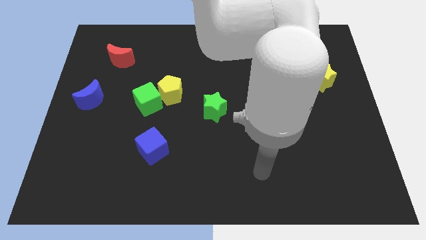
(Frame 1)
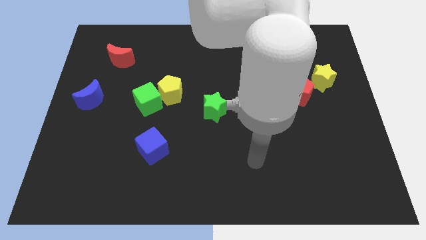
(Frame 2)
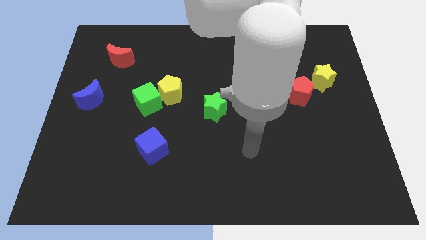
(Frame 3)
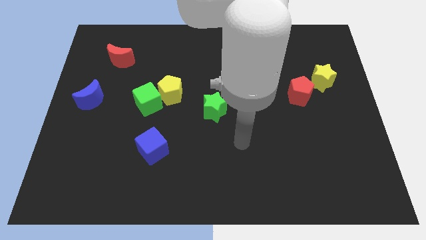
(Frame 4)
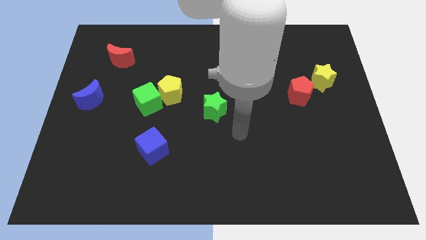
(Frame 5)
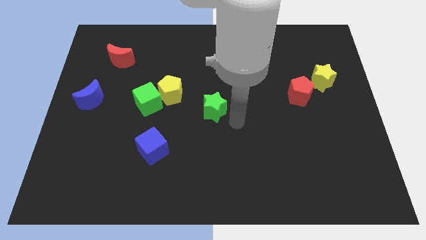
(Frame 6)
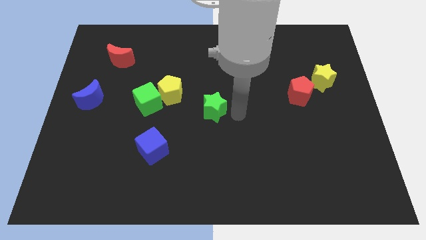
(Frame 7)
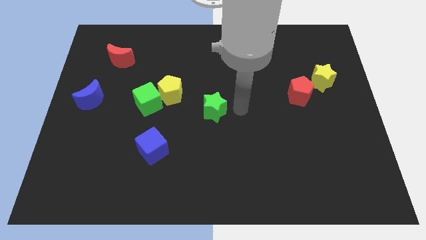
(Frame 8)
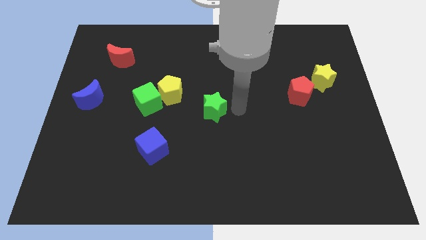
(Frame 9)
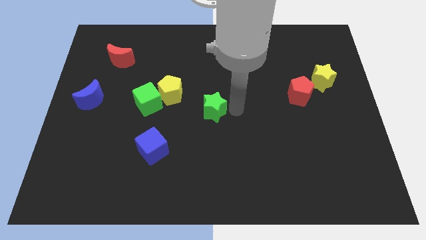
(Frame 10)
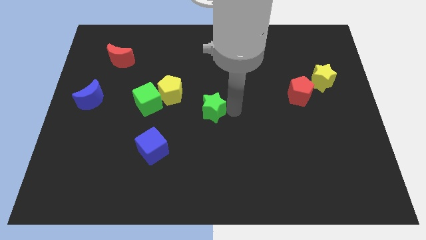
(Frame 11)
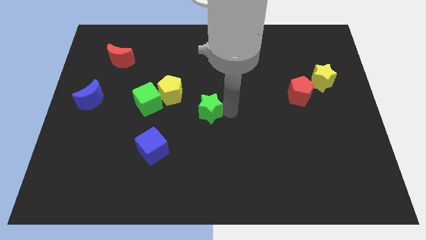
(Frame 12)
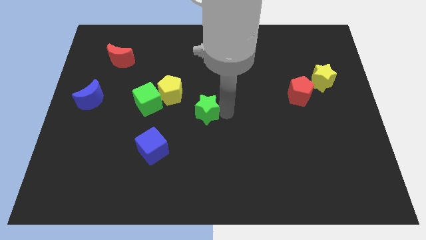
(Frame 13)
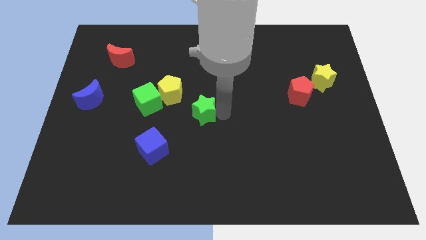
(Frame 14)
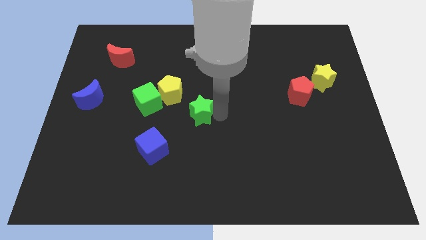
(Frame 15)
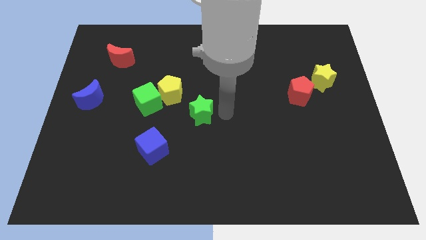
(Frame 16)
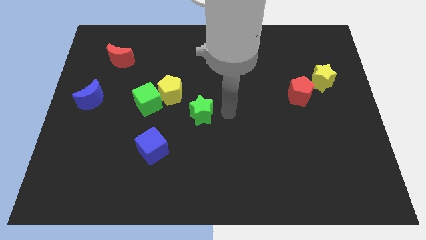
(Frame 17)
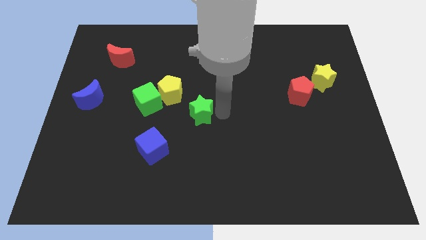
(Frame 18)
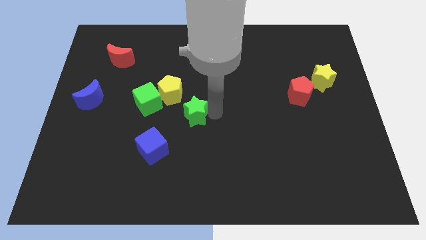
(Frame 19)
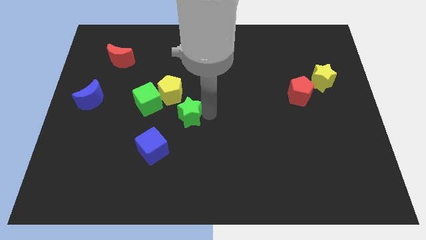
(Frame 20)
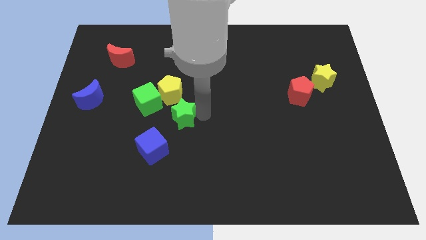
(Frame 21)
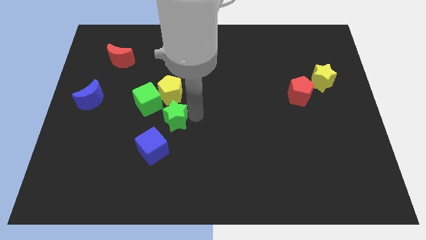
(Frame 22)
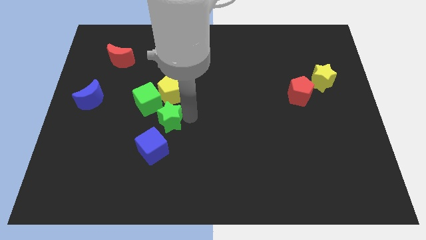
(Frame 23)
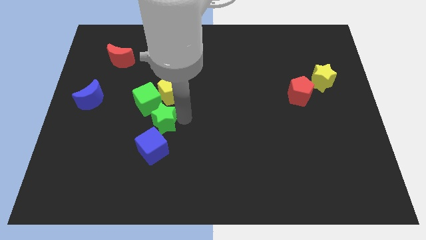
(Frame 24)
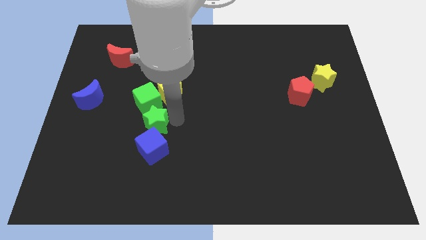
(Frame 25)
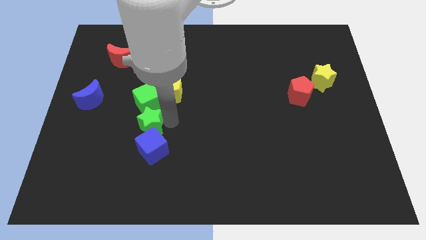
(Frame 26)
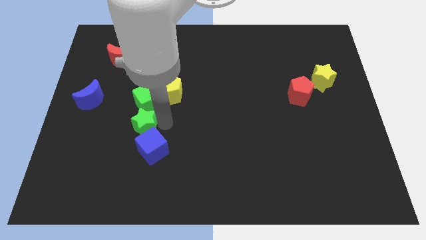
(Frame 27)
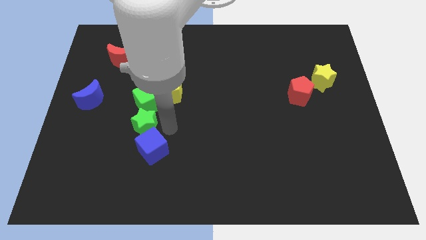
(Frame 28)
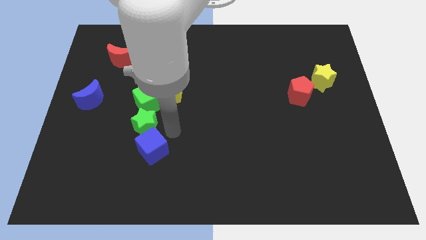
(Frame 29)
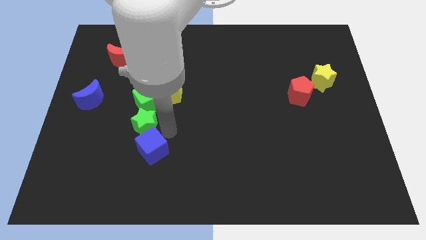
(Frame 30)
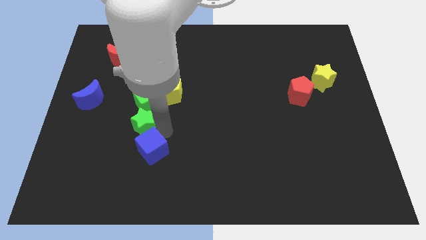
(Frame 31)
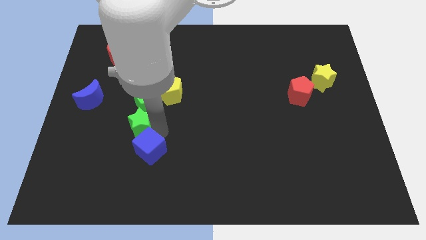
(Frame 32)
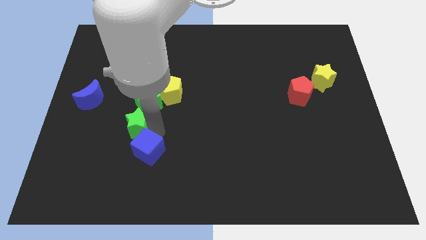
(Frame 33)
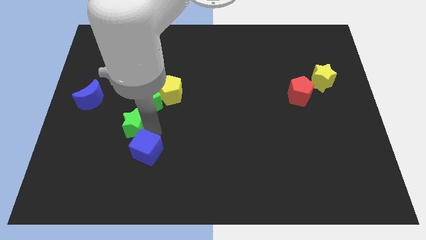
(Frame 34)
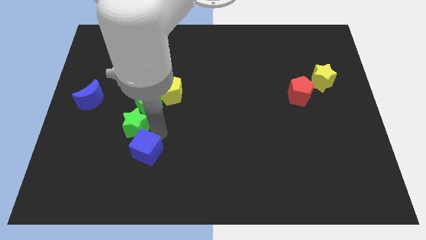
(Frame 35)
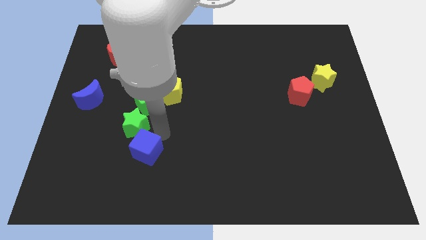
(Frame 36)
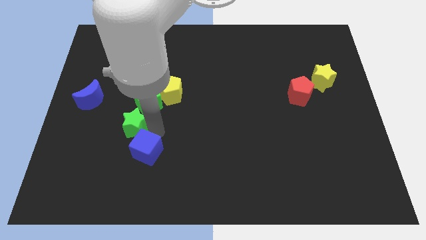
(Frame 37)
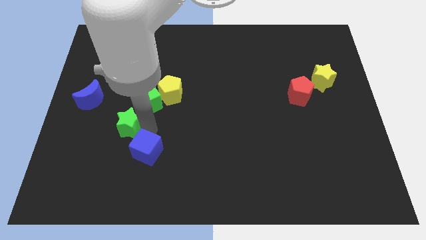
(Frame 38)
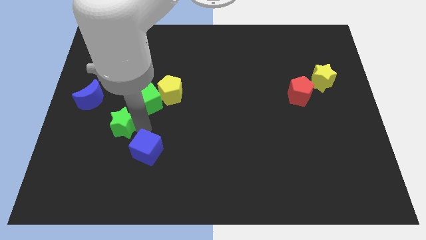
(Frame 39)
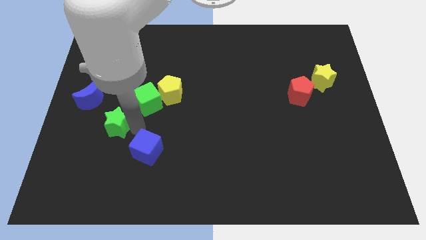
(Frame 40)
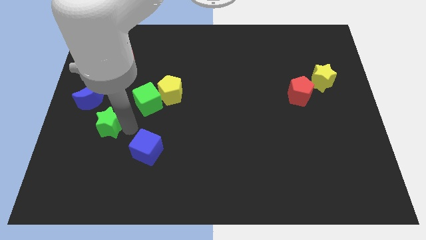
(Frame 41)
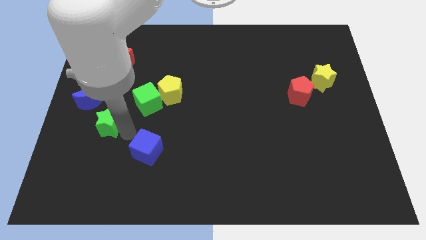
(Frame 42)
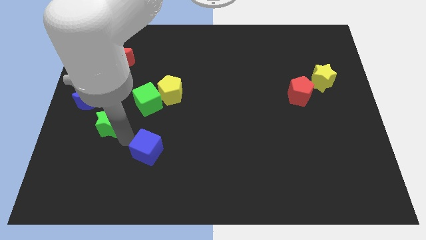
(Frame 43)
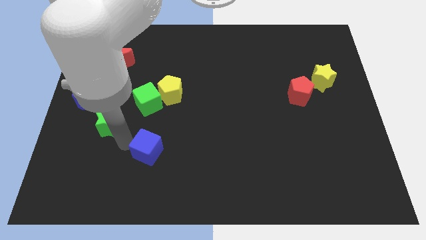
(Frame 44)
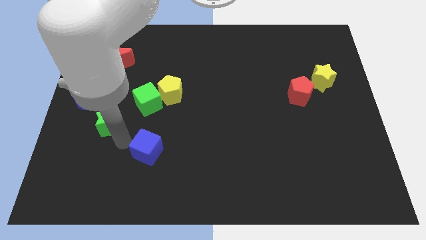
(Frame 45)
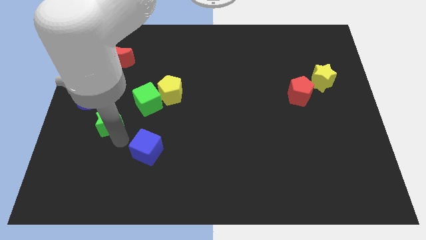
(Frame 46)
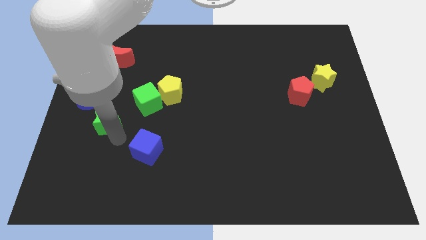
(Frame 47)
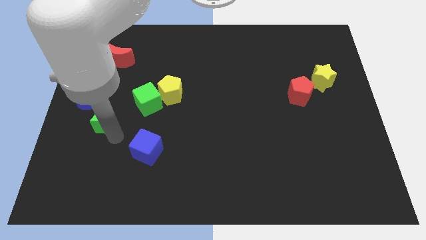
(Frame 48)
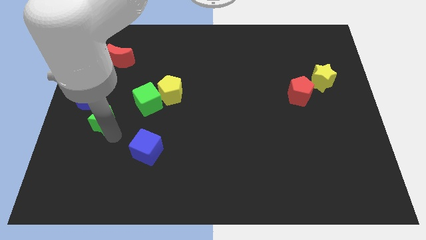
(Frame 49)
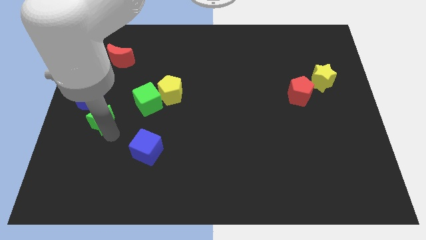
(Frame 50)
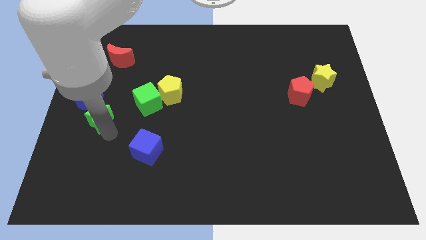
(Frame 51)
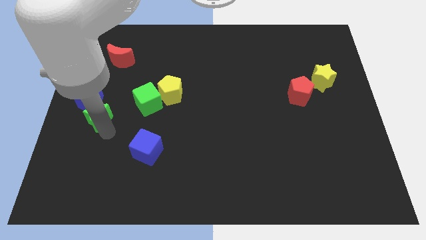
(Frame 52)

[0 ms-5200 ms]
slide the green star to the blue moon

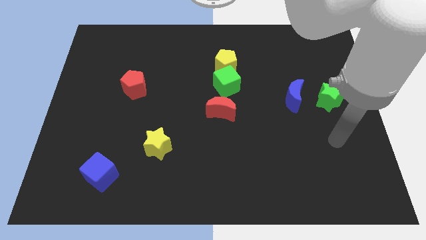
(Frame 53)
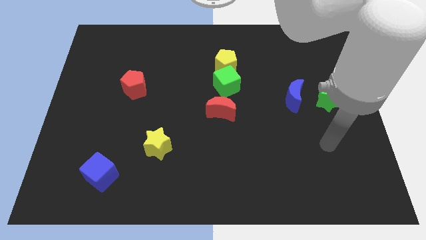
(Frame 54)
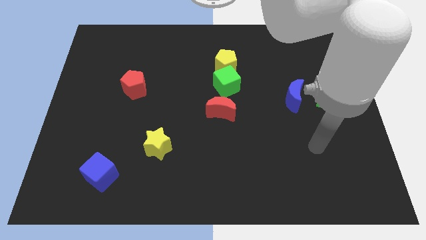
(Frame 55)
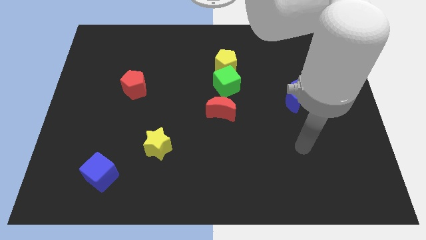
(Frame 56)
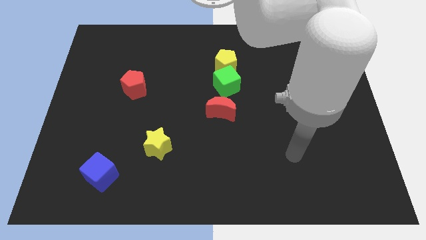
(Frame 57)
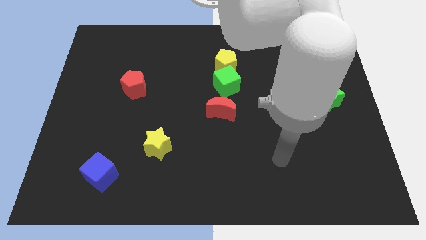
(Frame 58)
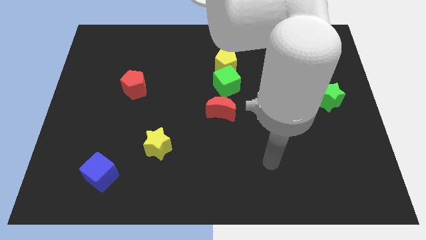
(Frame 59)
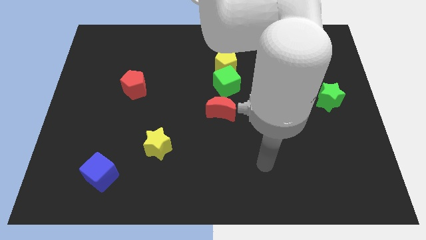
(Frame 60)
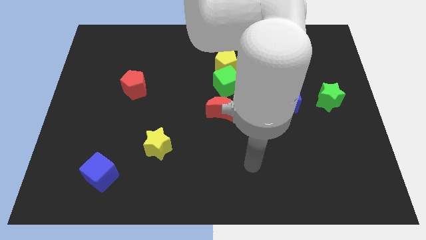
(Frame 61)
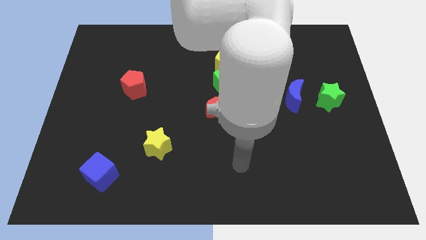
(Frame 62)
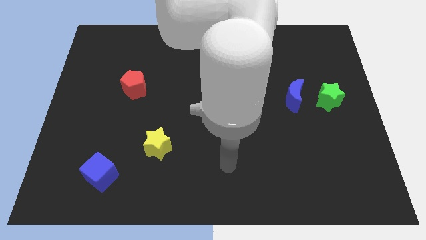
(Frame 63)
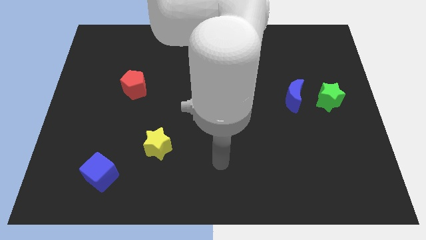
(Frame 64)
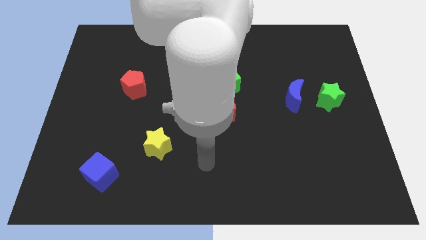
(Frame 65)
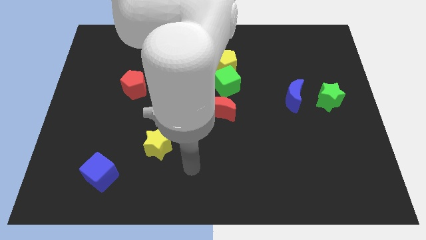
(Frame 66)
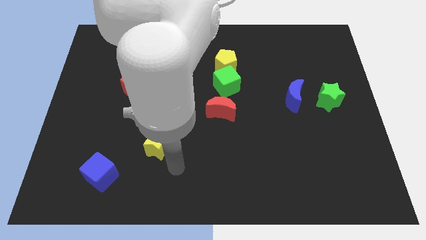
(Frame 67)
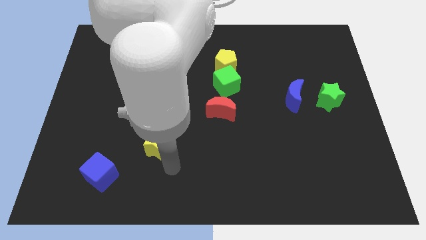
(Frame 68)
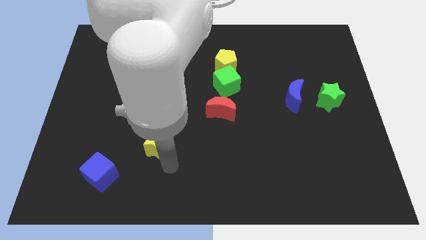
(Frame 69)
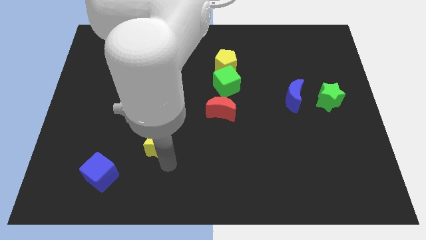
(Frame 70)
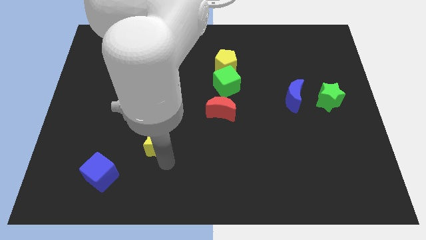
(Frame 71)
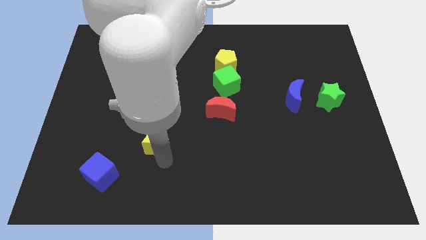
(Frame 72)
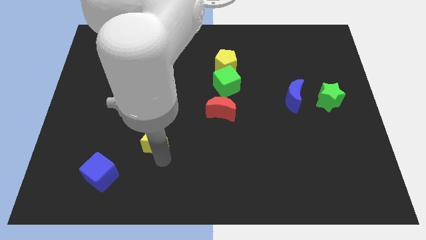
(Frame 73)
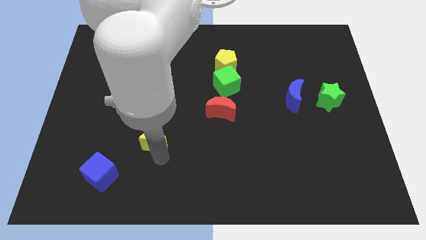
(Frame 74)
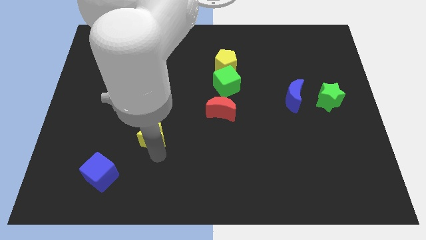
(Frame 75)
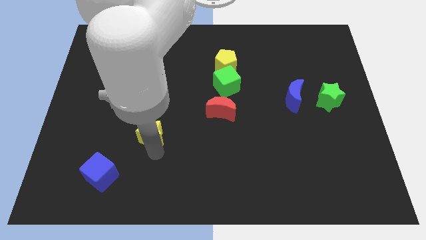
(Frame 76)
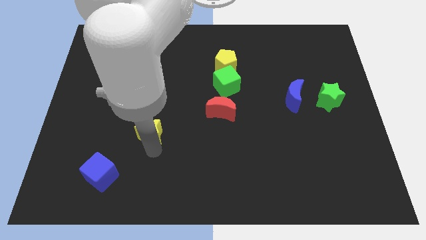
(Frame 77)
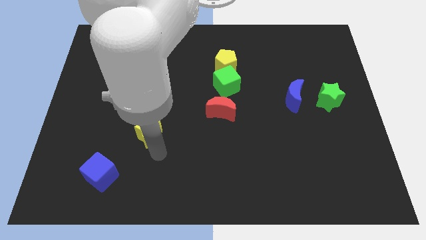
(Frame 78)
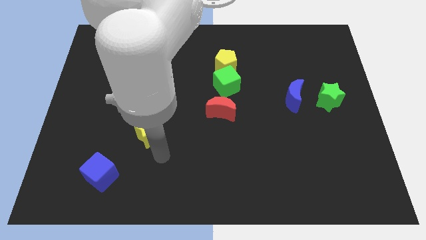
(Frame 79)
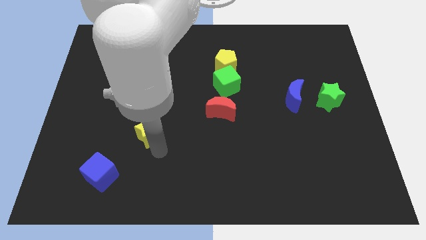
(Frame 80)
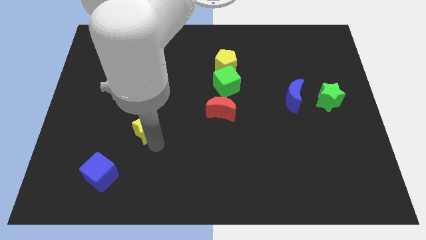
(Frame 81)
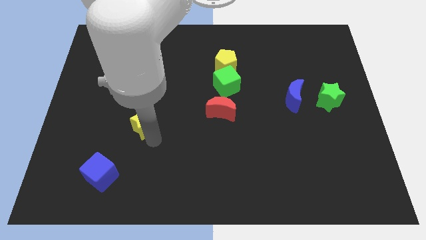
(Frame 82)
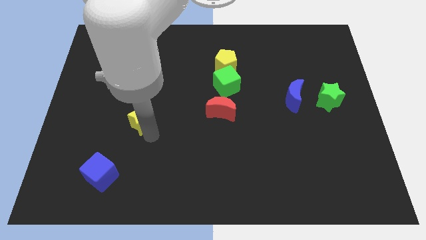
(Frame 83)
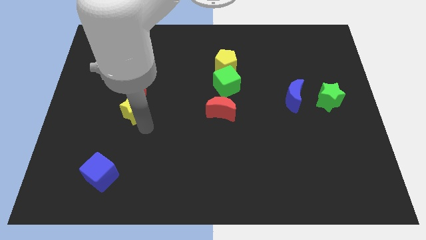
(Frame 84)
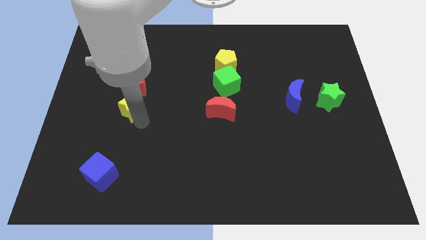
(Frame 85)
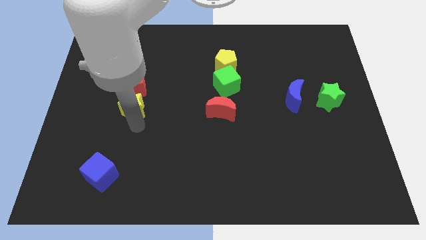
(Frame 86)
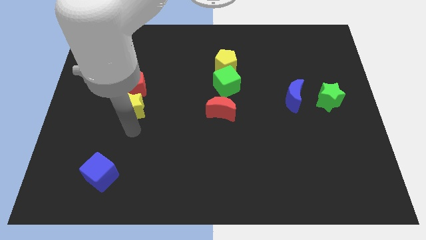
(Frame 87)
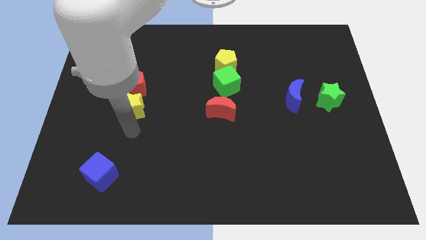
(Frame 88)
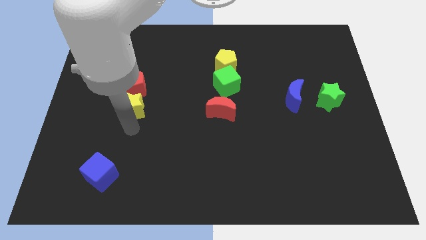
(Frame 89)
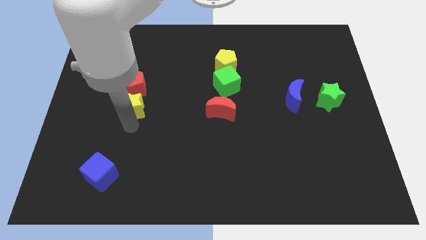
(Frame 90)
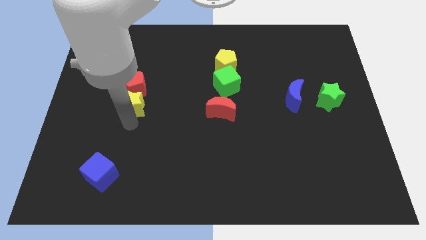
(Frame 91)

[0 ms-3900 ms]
push the yellow star to the red pentagon
